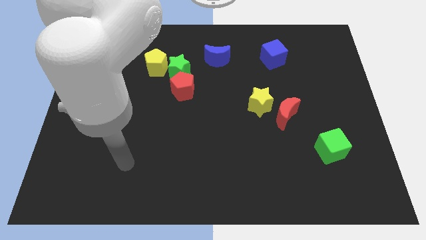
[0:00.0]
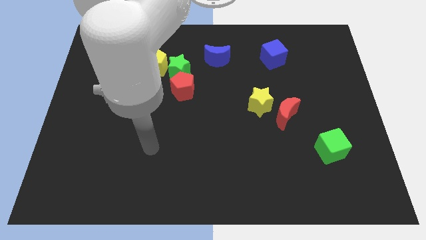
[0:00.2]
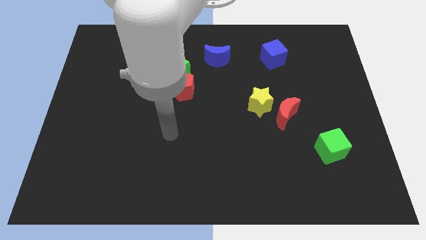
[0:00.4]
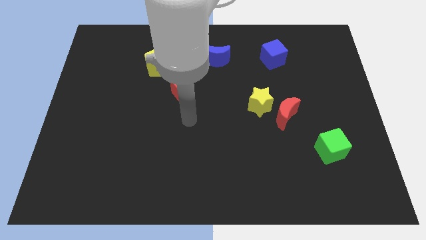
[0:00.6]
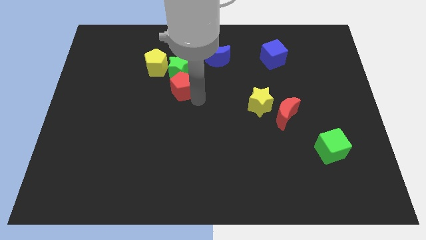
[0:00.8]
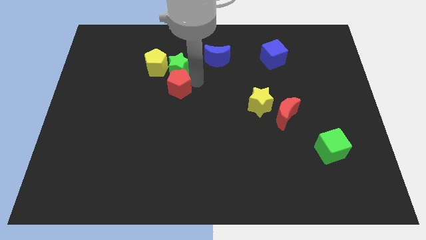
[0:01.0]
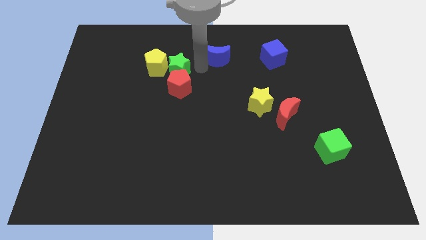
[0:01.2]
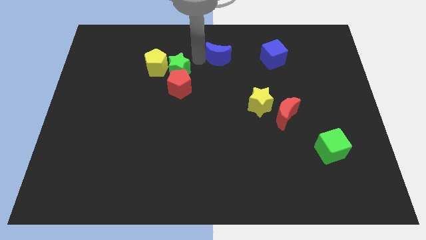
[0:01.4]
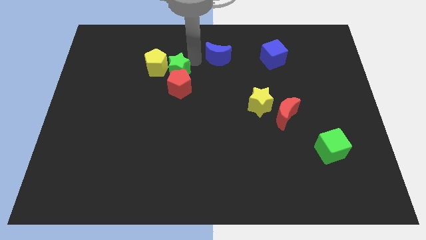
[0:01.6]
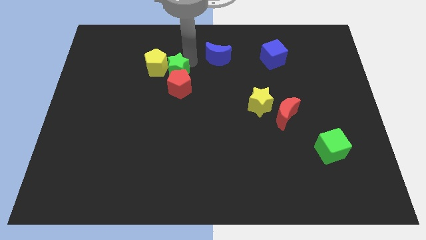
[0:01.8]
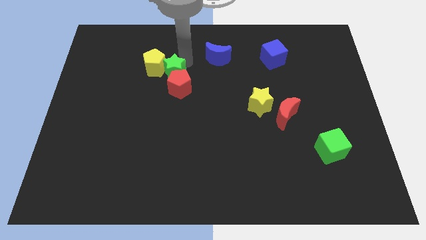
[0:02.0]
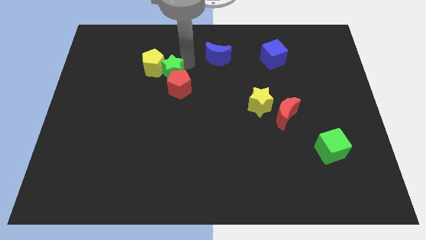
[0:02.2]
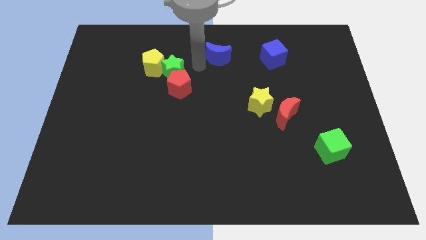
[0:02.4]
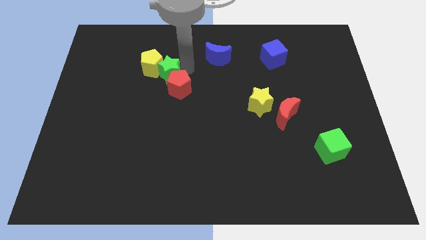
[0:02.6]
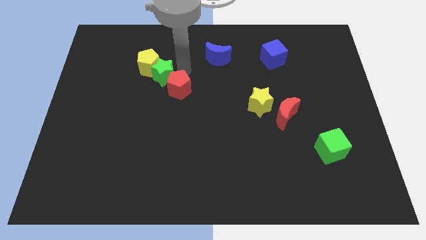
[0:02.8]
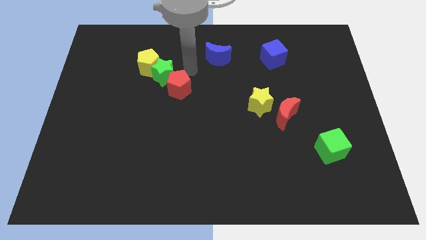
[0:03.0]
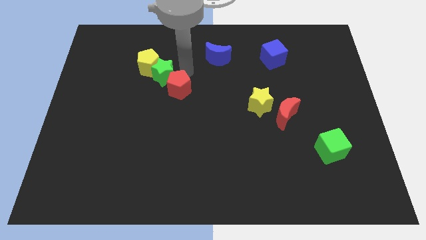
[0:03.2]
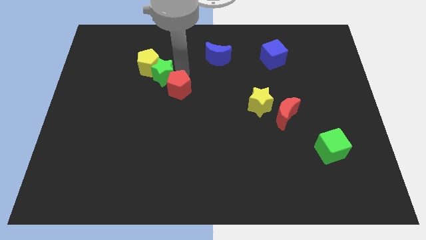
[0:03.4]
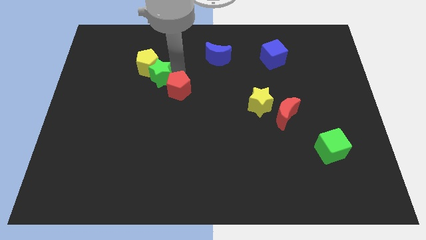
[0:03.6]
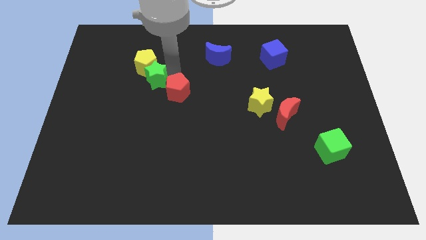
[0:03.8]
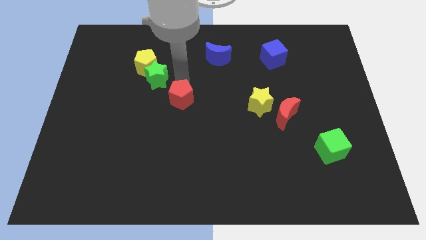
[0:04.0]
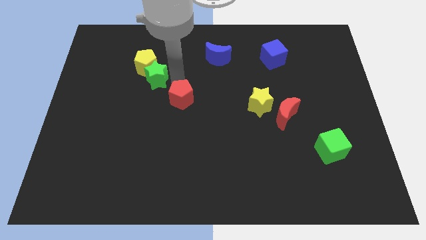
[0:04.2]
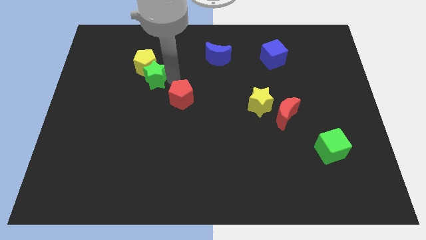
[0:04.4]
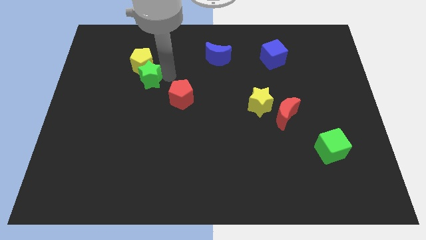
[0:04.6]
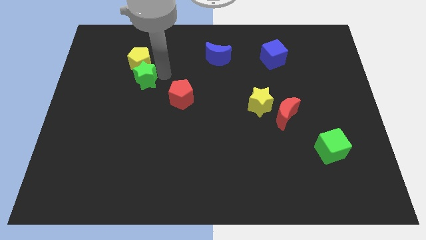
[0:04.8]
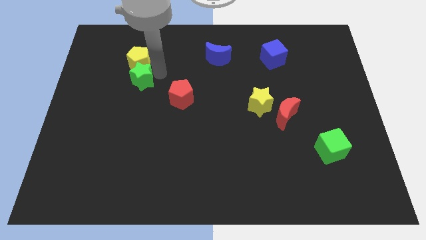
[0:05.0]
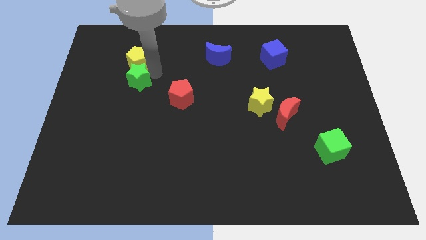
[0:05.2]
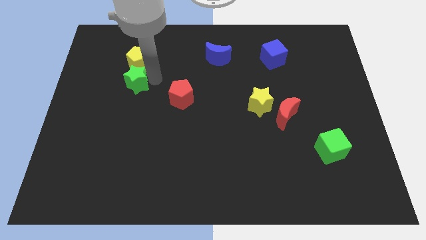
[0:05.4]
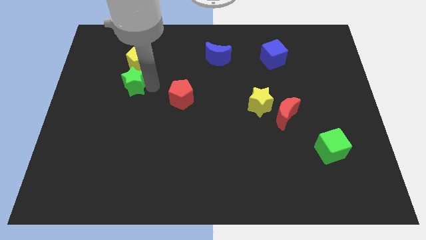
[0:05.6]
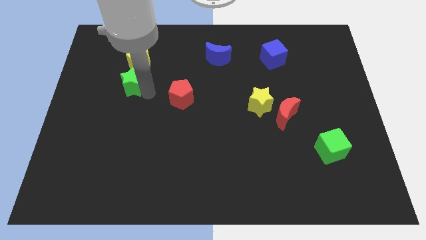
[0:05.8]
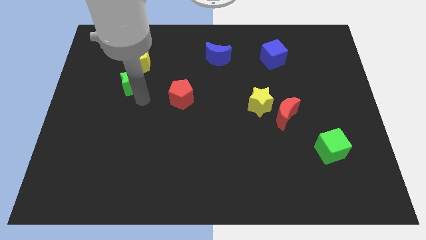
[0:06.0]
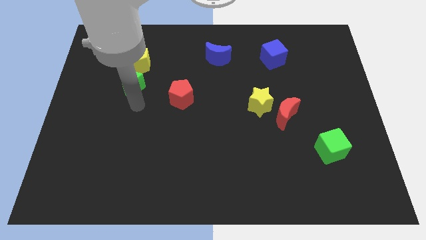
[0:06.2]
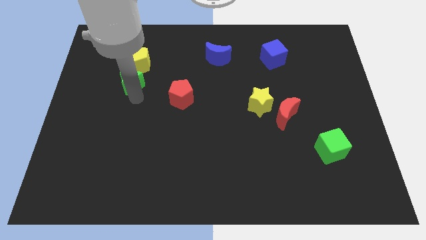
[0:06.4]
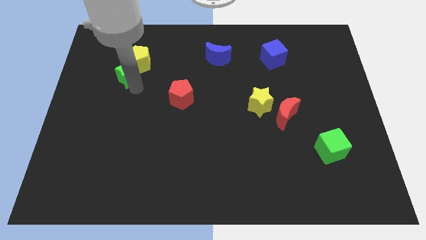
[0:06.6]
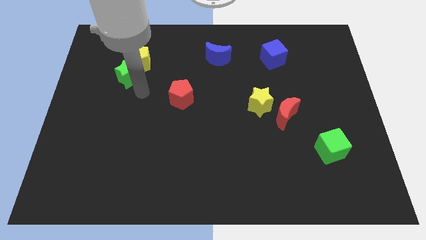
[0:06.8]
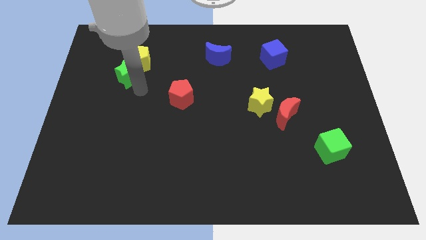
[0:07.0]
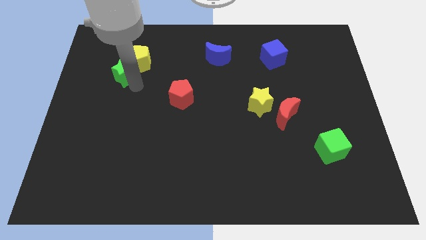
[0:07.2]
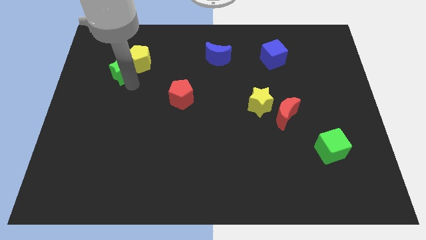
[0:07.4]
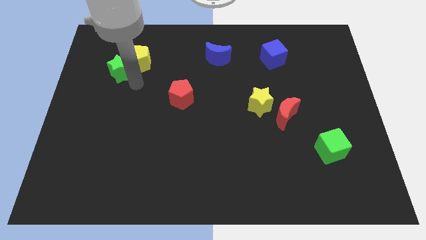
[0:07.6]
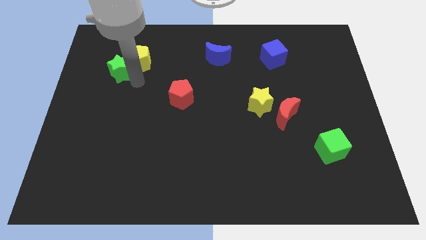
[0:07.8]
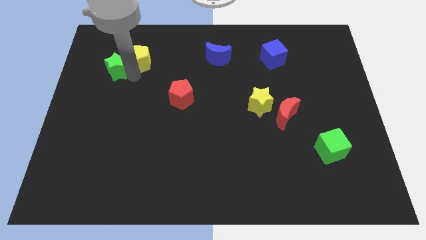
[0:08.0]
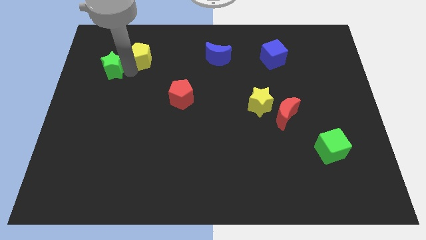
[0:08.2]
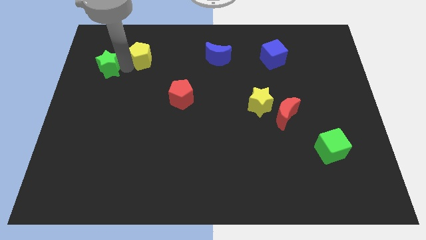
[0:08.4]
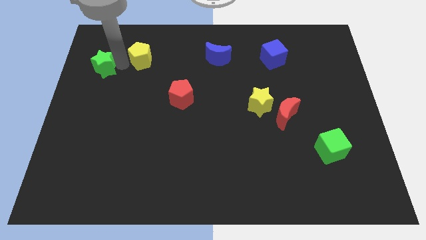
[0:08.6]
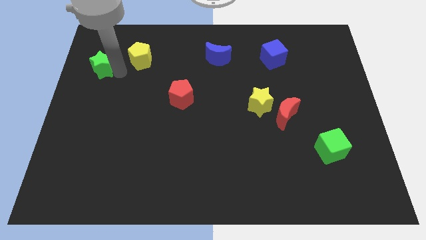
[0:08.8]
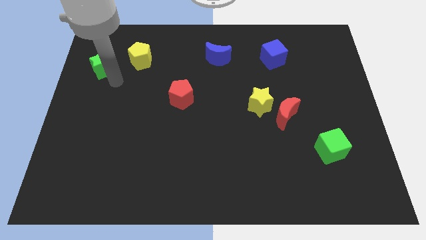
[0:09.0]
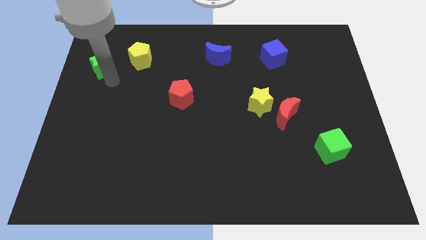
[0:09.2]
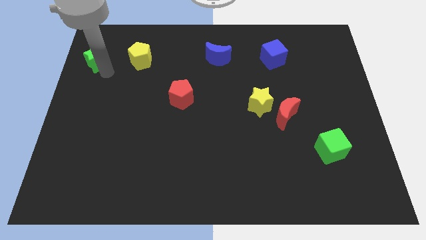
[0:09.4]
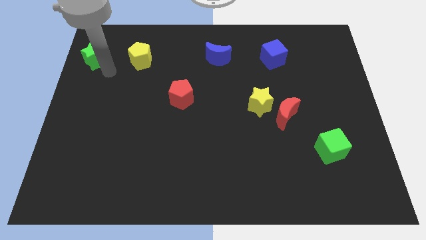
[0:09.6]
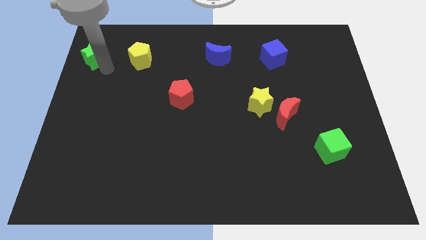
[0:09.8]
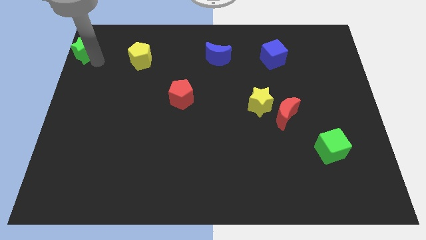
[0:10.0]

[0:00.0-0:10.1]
push the green star to the top left of the board

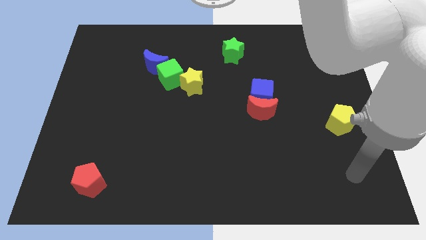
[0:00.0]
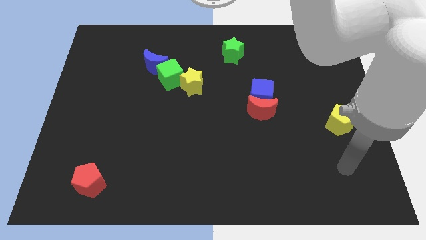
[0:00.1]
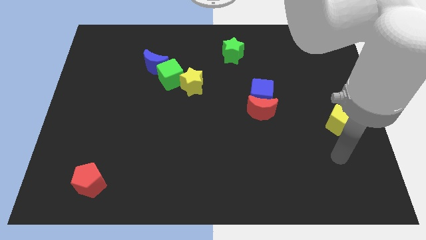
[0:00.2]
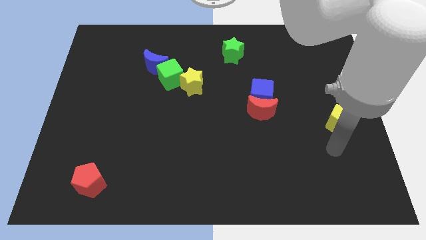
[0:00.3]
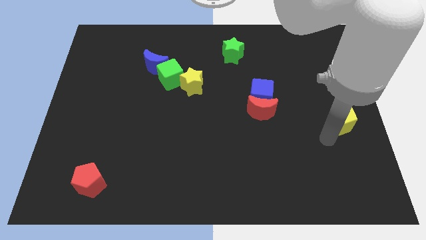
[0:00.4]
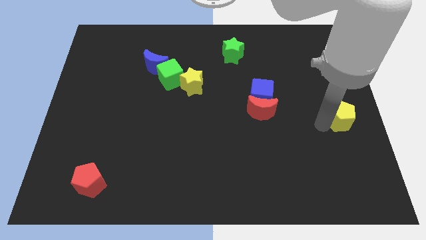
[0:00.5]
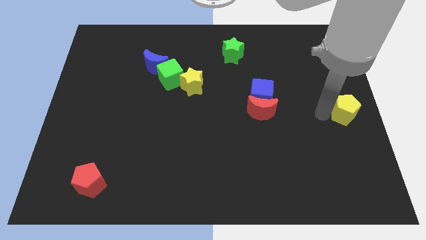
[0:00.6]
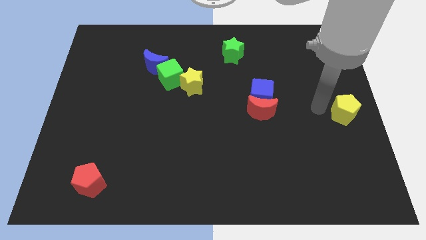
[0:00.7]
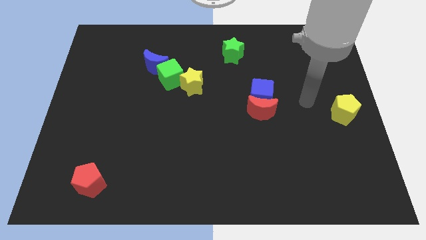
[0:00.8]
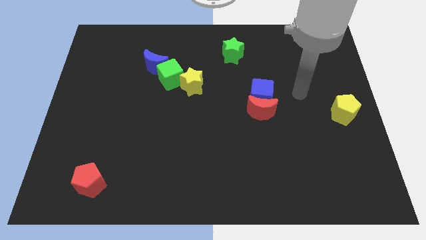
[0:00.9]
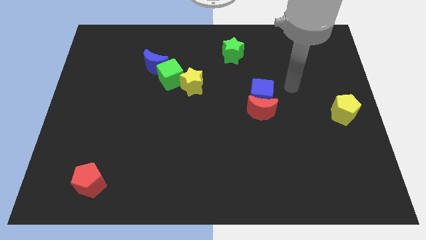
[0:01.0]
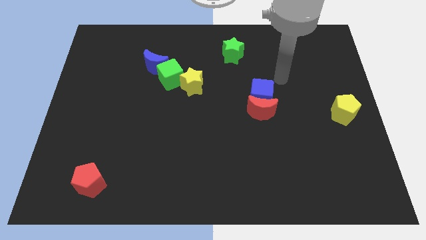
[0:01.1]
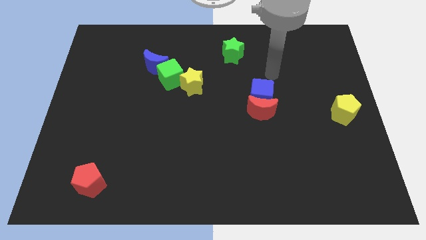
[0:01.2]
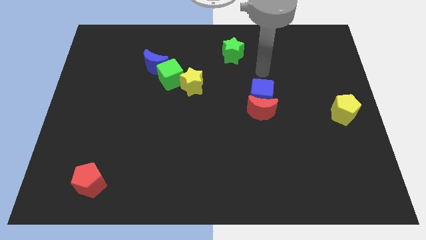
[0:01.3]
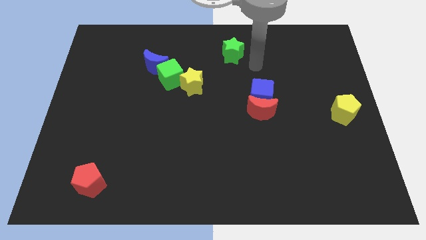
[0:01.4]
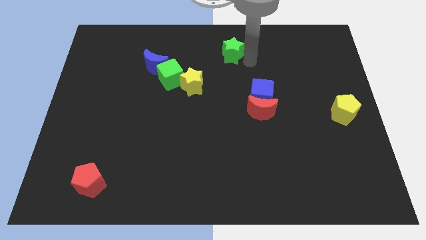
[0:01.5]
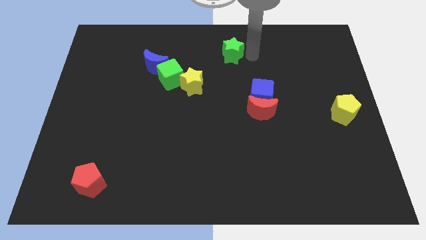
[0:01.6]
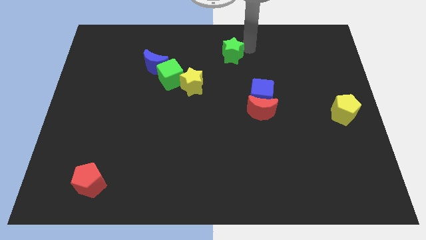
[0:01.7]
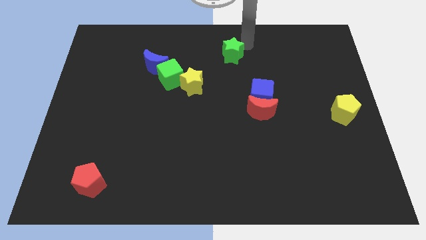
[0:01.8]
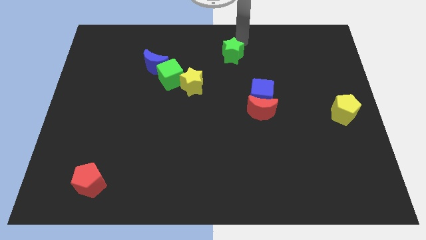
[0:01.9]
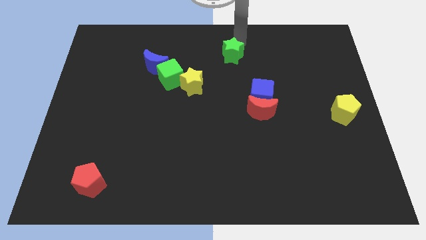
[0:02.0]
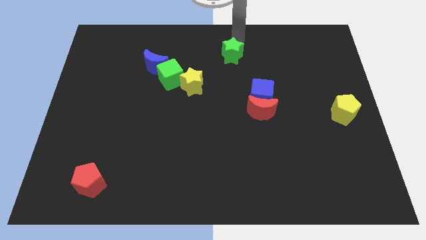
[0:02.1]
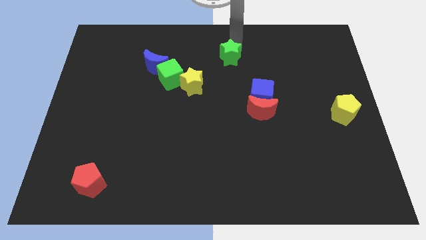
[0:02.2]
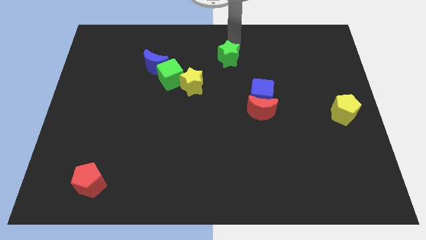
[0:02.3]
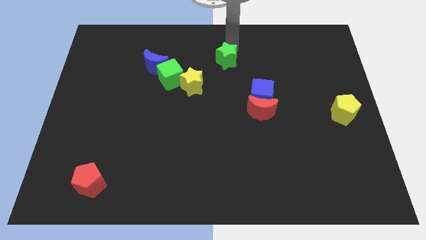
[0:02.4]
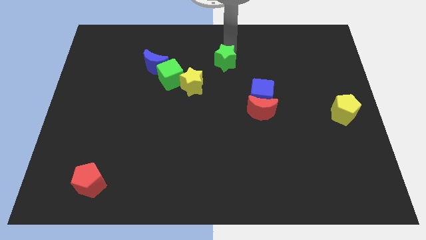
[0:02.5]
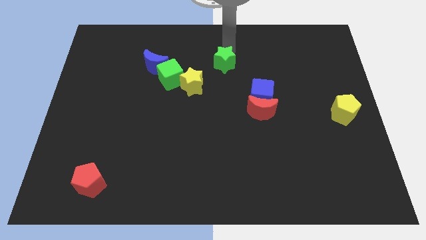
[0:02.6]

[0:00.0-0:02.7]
move the green star to the center of the board
